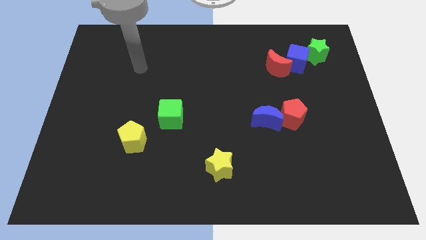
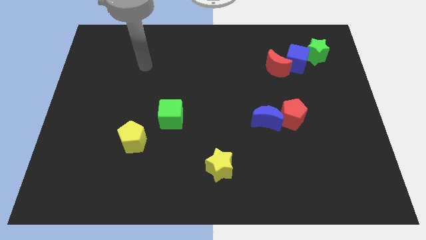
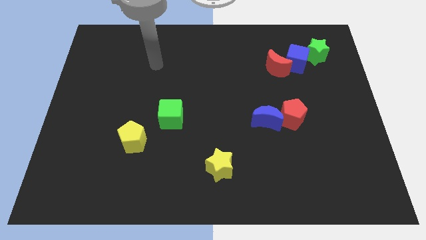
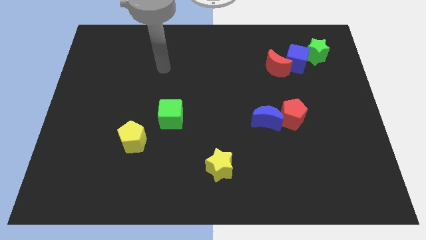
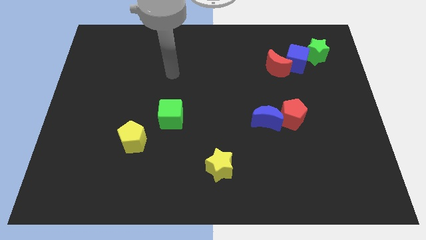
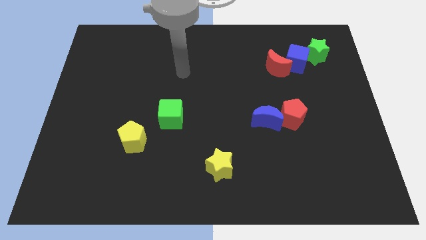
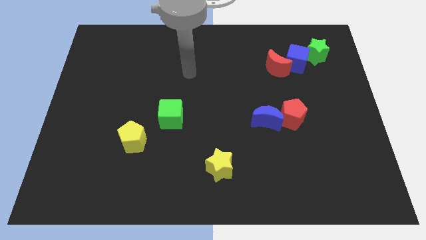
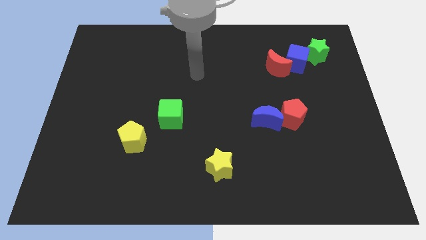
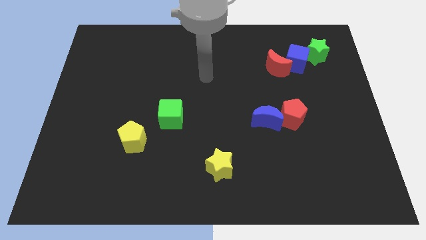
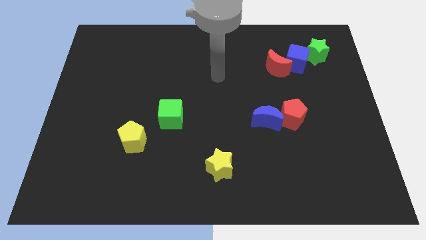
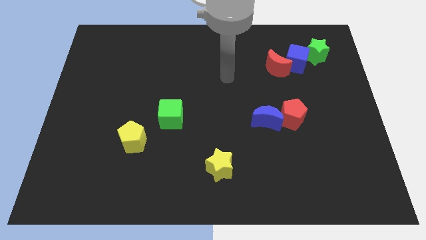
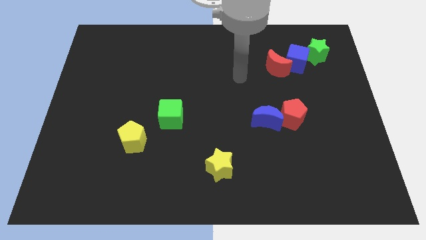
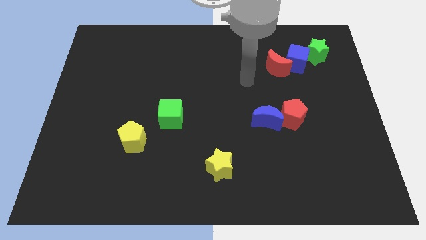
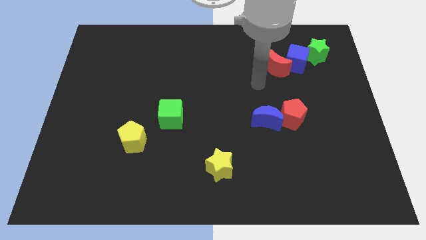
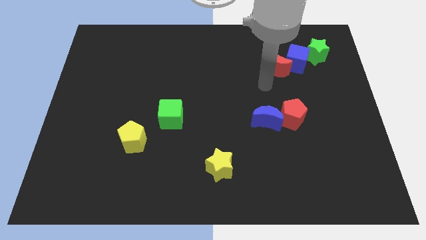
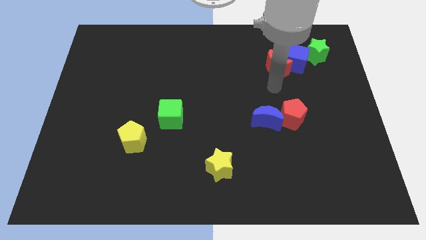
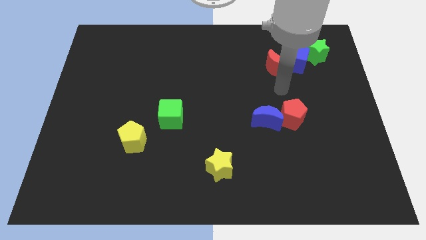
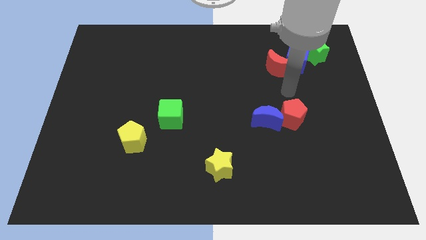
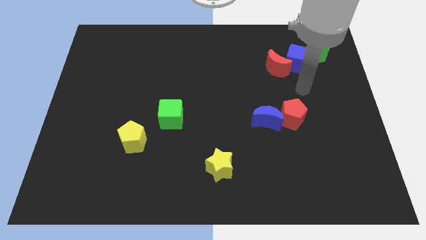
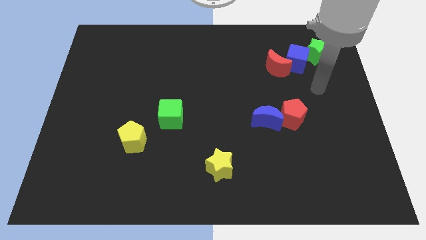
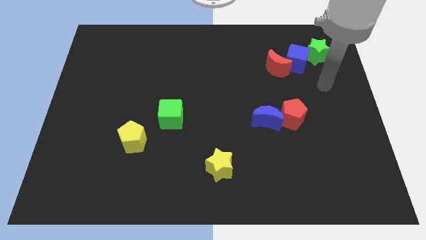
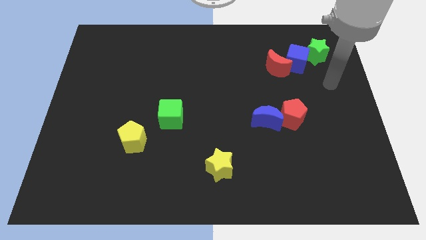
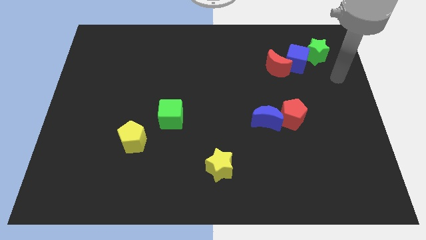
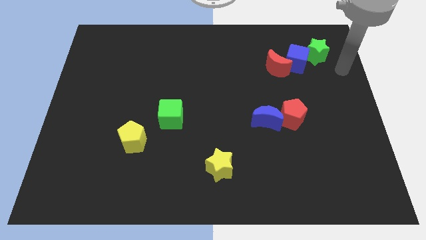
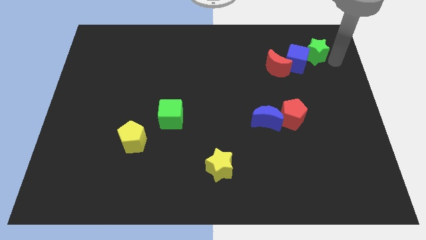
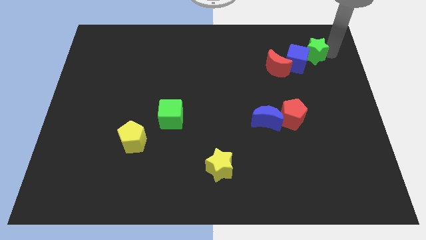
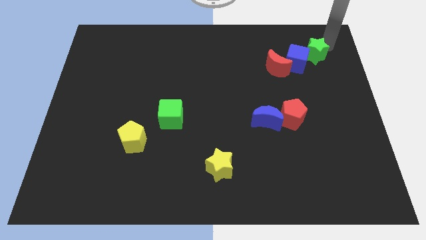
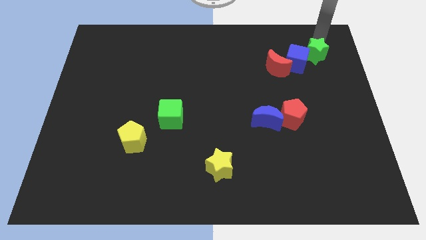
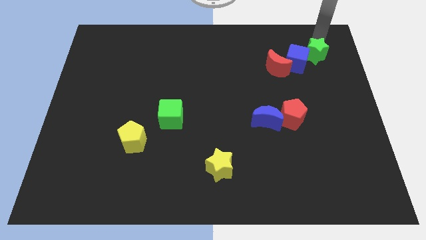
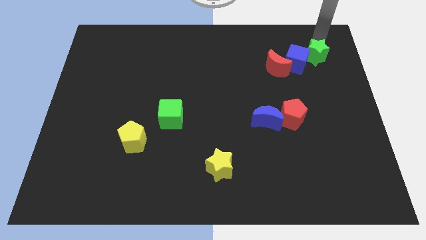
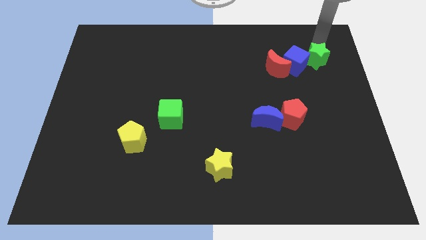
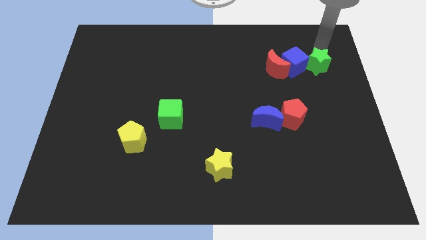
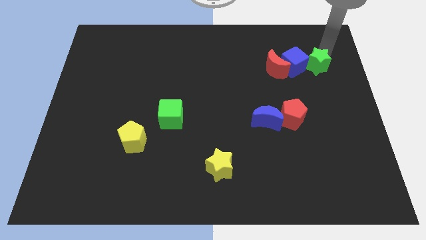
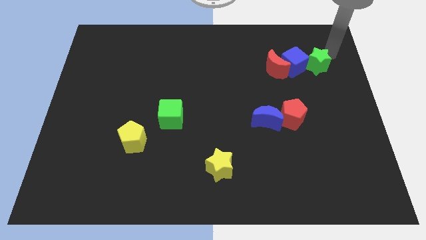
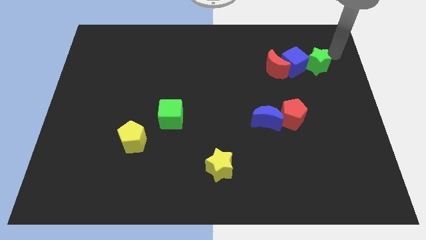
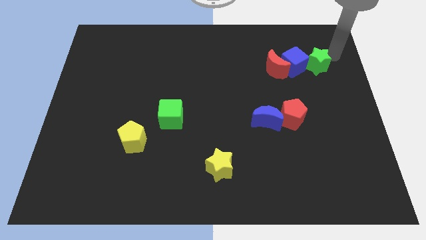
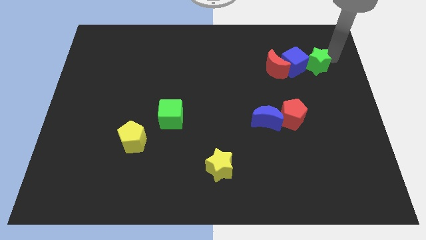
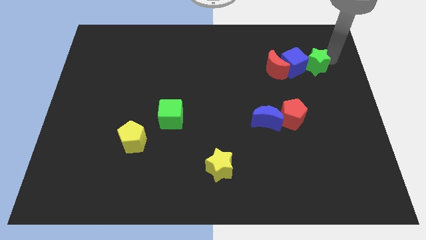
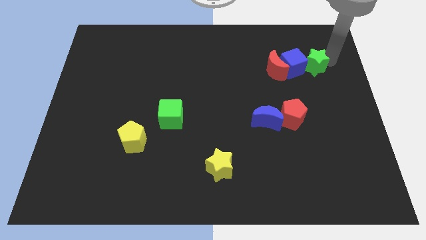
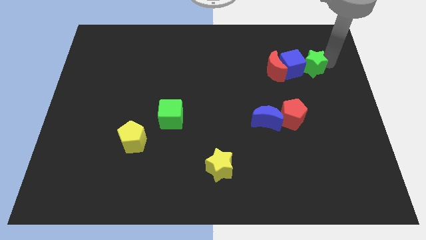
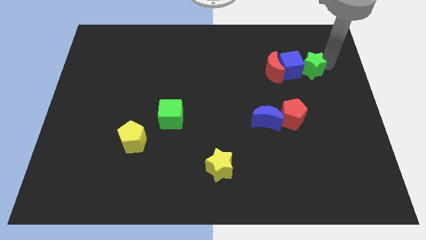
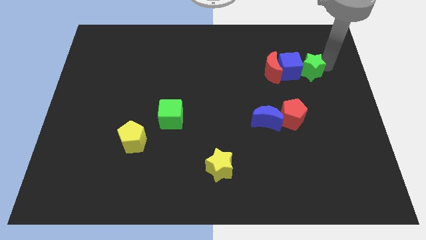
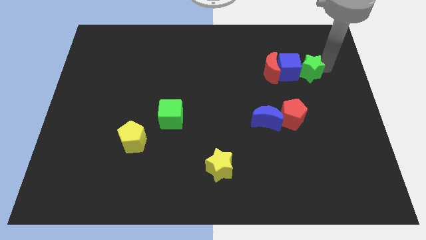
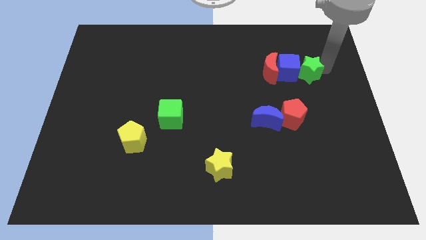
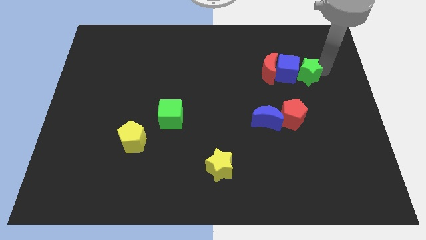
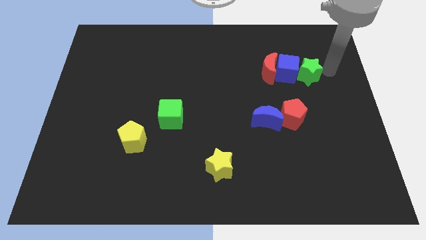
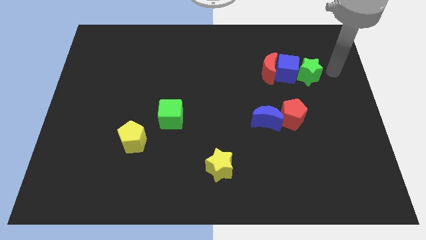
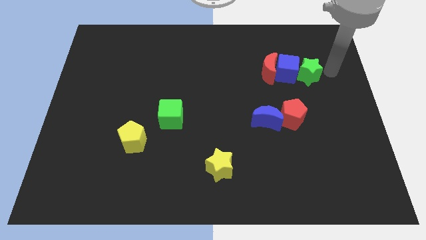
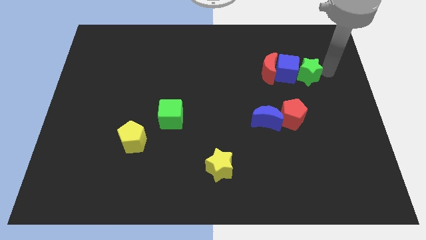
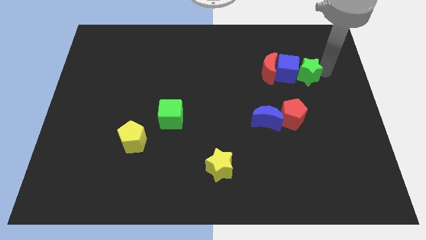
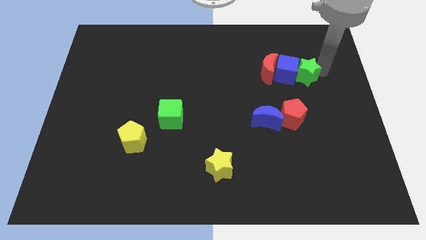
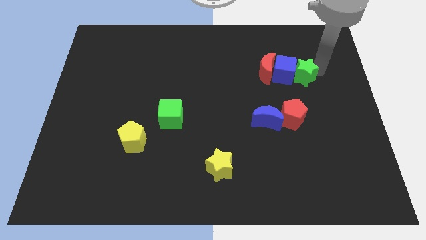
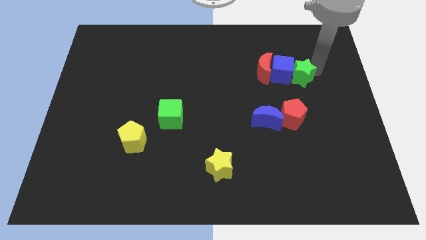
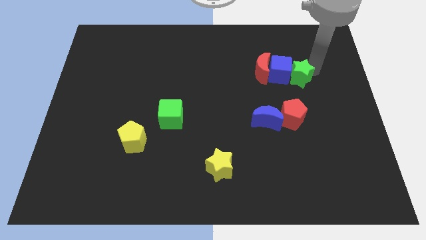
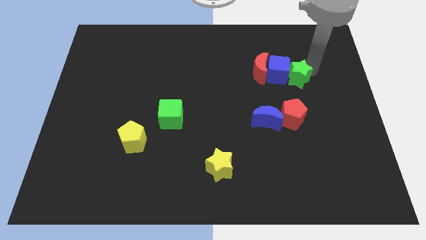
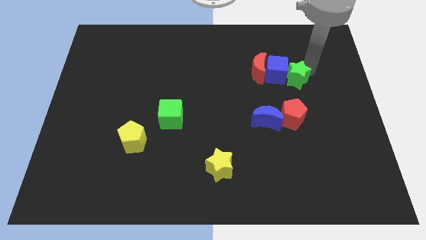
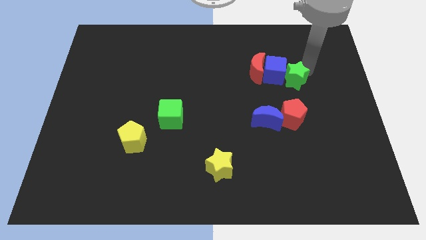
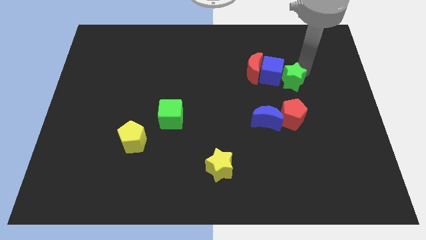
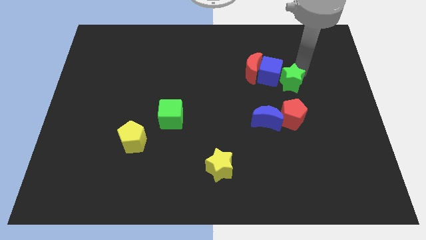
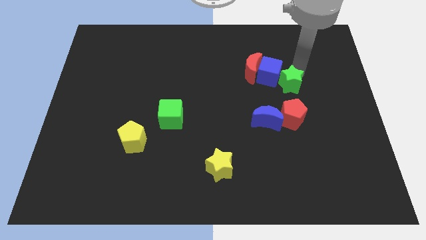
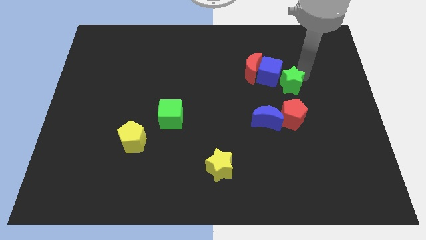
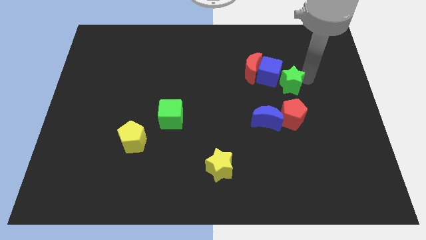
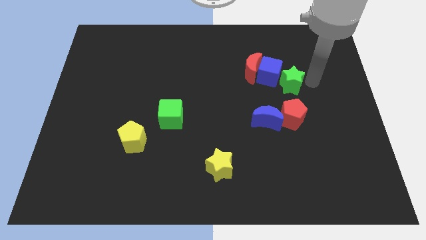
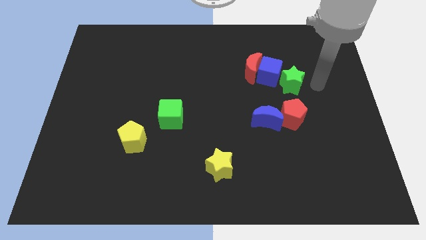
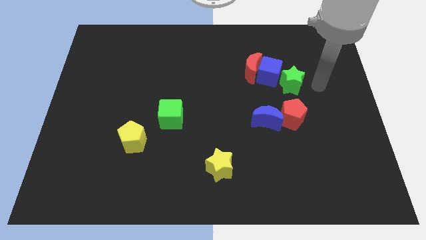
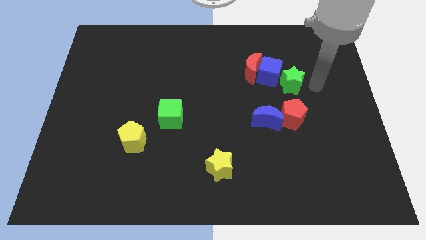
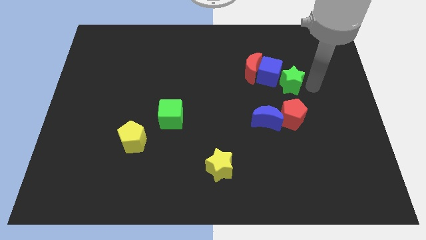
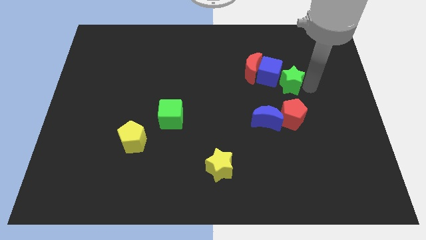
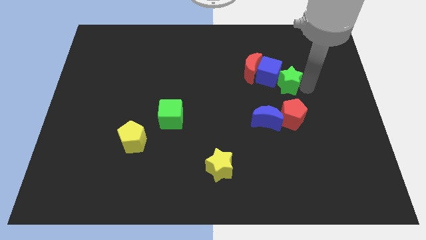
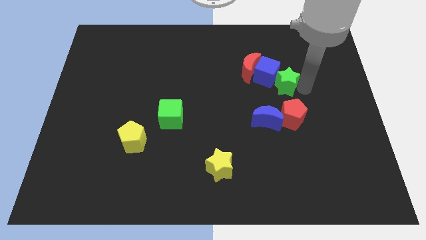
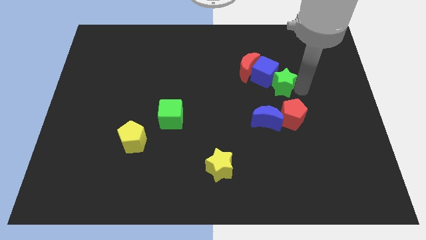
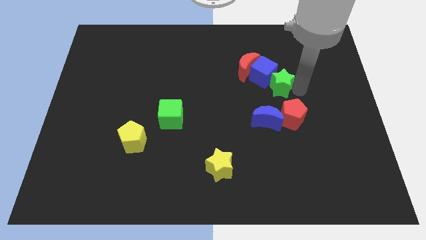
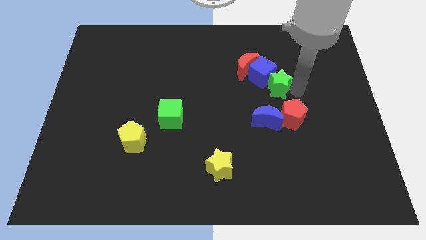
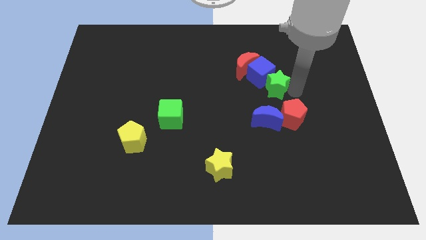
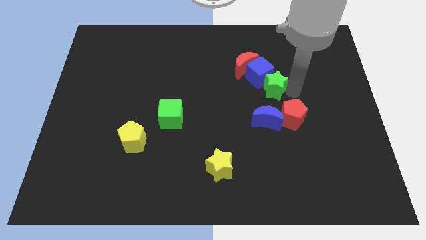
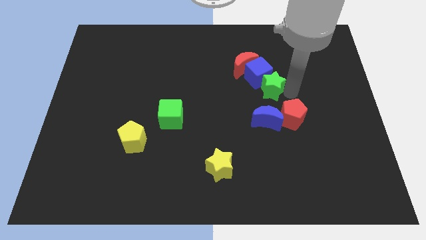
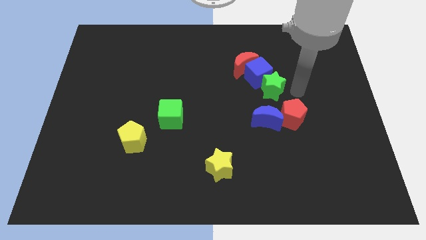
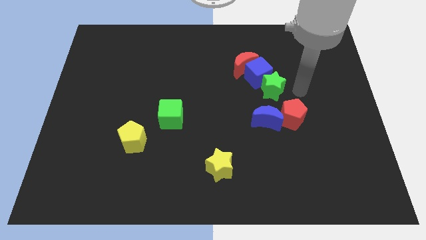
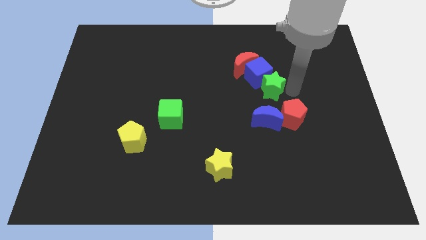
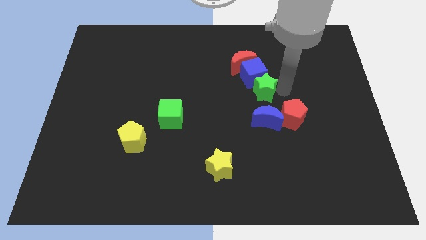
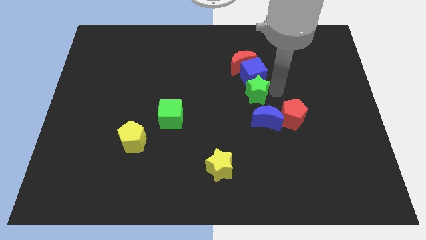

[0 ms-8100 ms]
push the green star to the middle of the board
